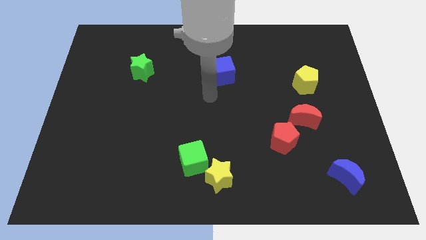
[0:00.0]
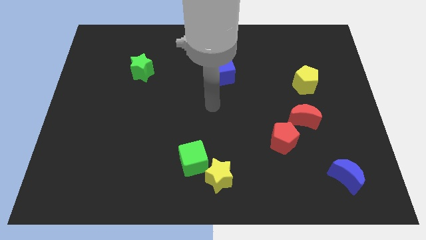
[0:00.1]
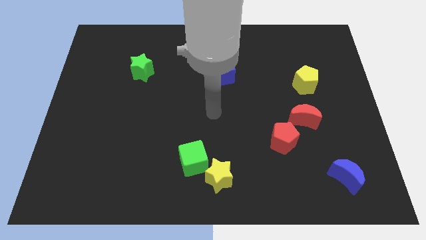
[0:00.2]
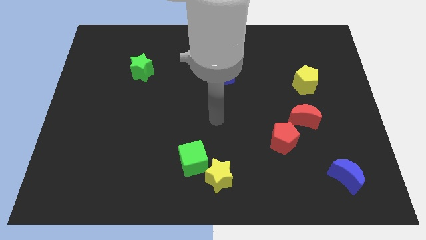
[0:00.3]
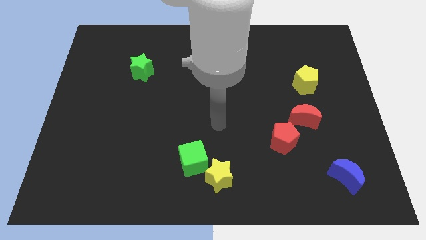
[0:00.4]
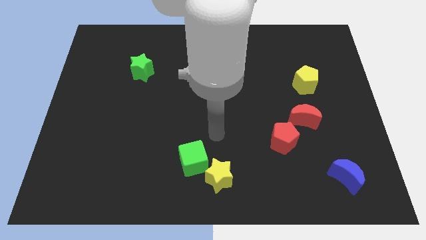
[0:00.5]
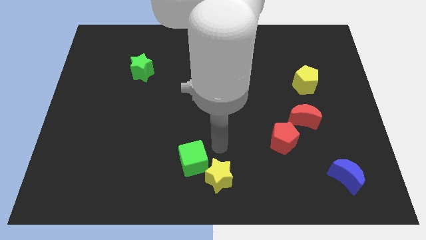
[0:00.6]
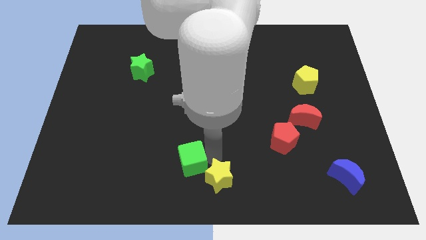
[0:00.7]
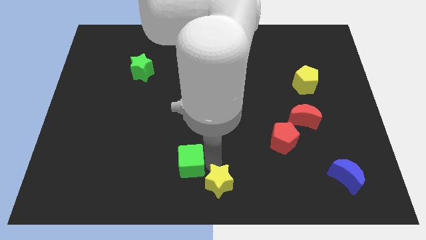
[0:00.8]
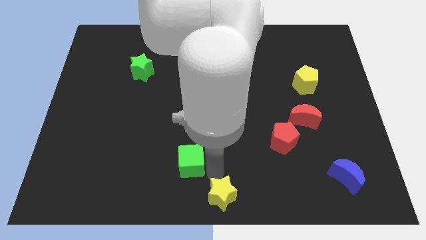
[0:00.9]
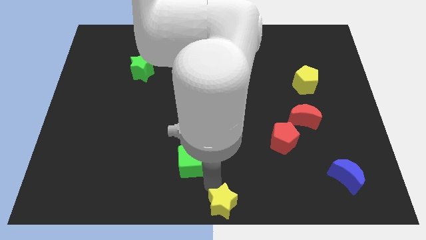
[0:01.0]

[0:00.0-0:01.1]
pull the green cube apart from the yellow star

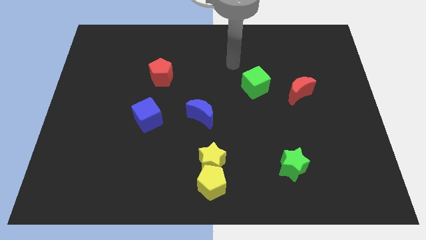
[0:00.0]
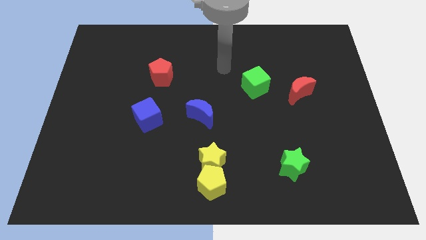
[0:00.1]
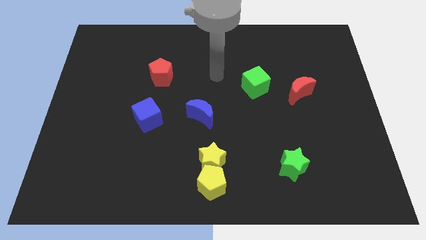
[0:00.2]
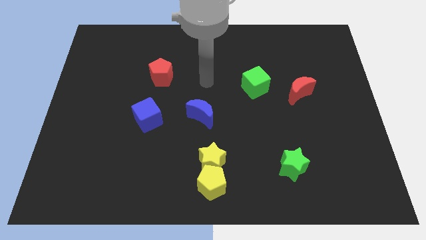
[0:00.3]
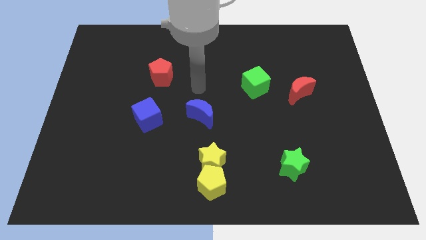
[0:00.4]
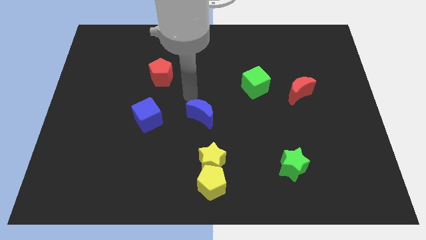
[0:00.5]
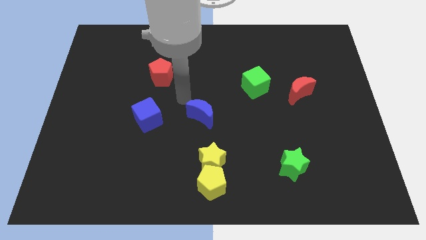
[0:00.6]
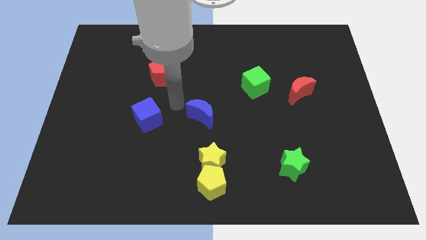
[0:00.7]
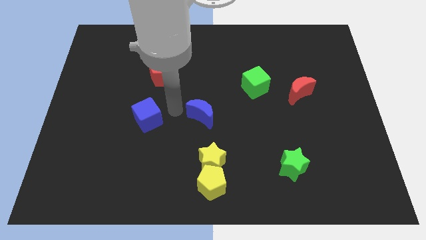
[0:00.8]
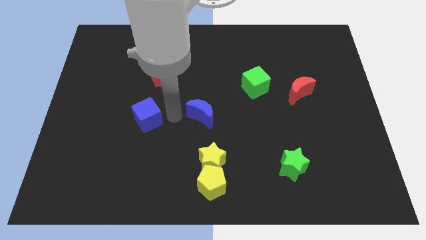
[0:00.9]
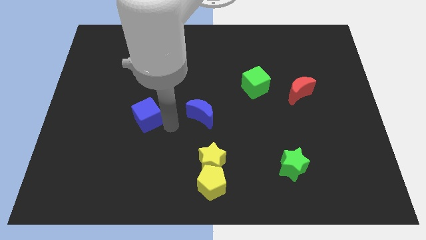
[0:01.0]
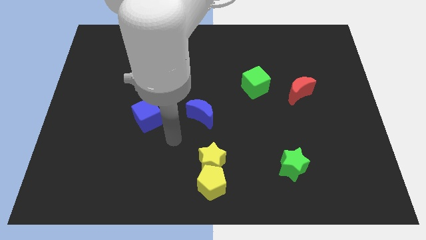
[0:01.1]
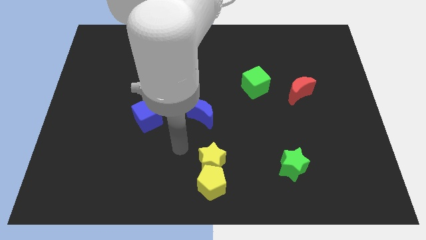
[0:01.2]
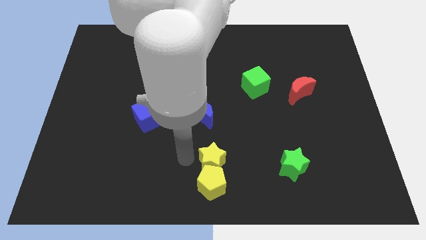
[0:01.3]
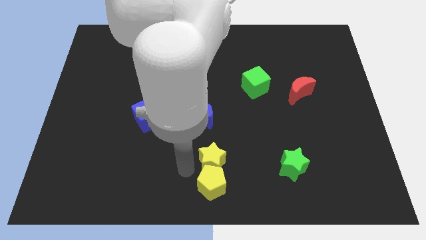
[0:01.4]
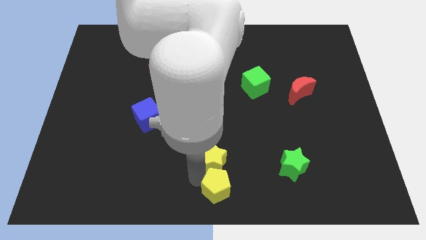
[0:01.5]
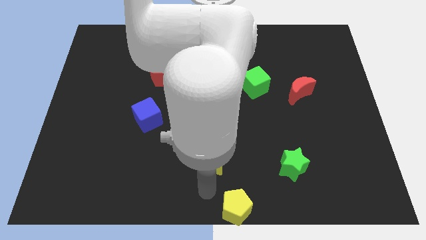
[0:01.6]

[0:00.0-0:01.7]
move the yellow star away from the yellow pentagon

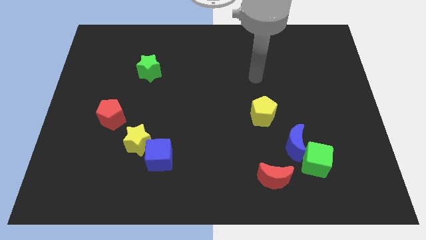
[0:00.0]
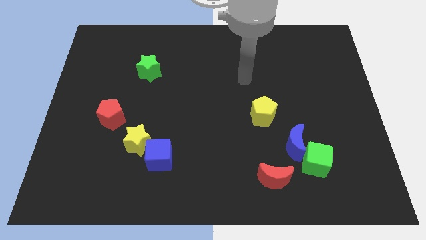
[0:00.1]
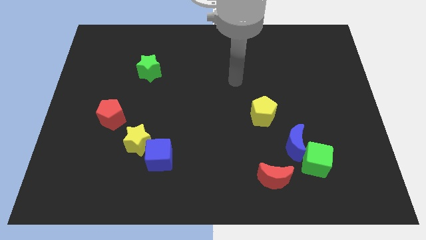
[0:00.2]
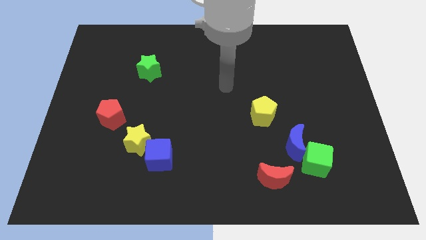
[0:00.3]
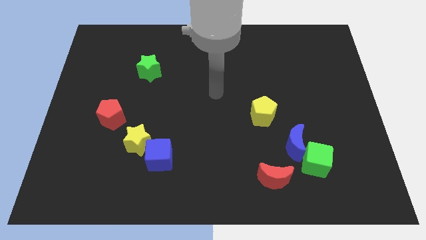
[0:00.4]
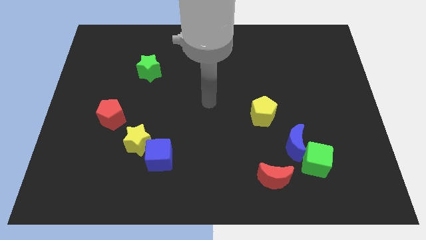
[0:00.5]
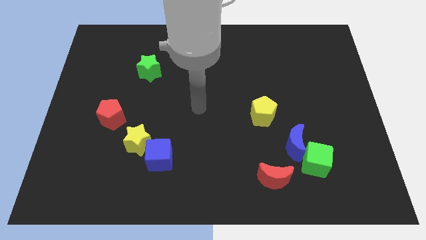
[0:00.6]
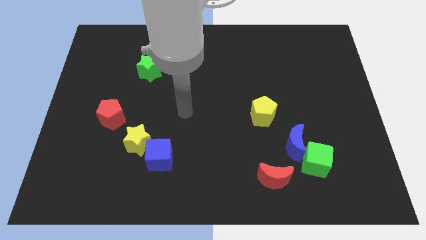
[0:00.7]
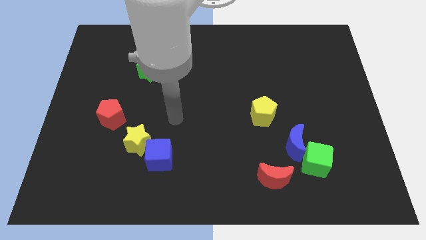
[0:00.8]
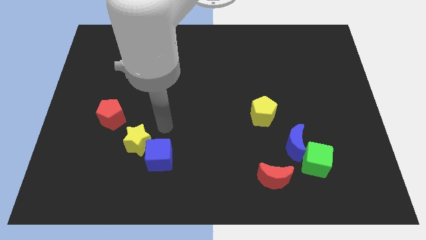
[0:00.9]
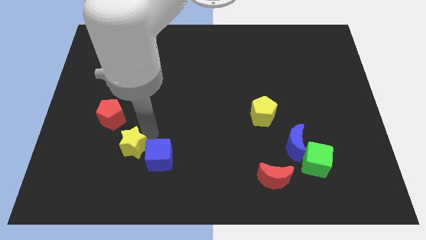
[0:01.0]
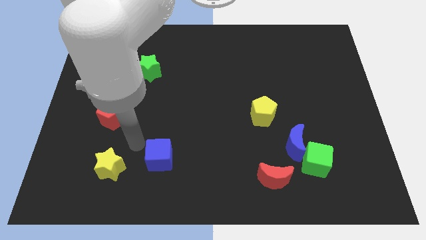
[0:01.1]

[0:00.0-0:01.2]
move the blue cube away from the yellow star

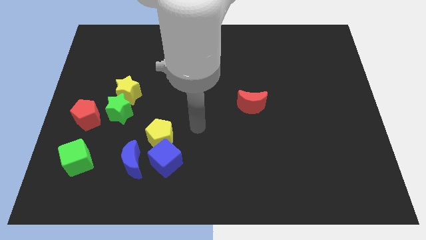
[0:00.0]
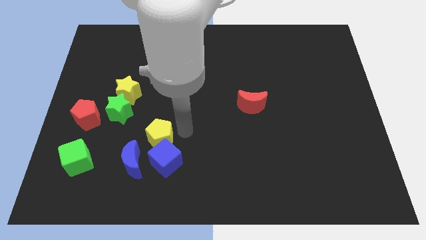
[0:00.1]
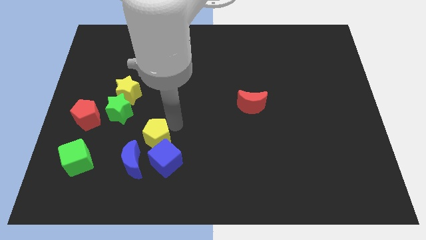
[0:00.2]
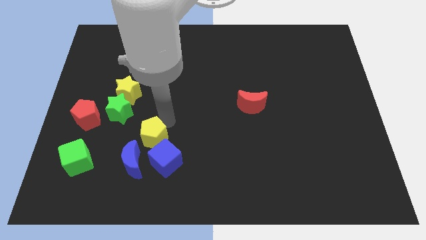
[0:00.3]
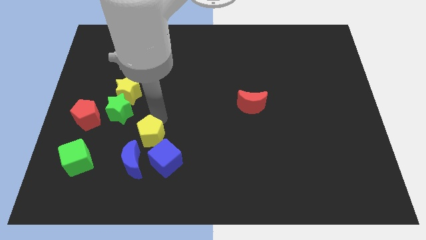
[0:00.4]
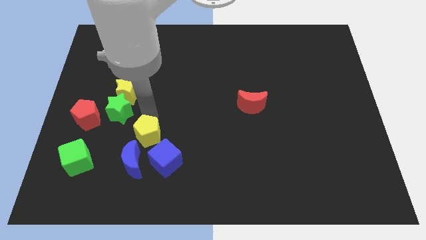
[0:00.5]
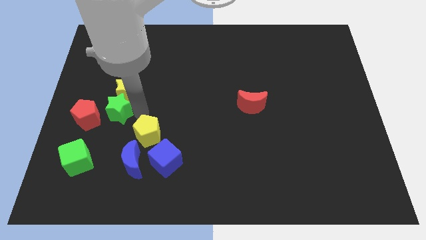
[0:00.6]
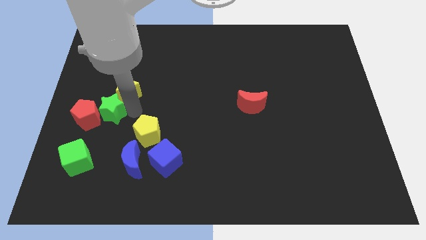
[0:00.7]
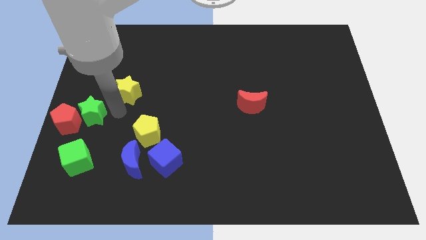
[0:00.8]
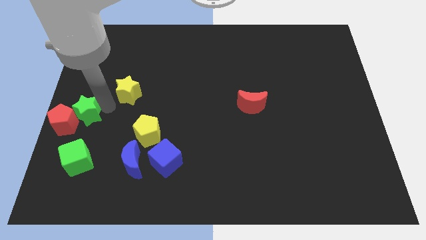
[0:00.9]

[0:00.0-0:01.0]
separate the yellow star from the green star

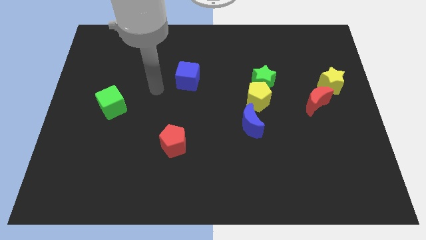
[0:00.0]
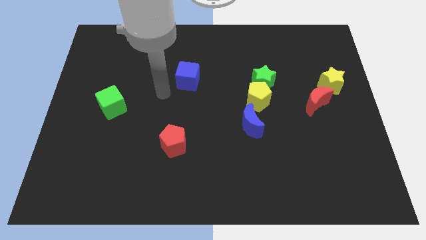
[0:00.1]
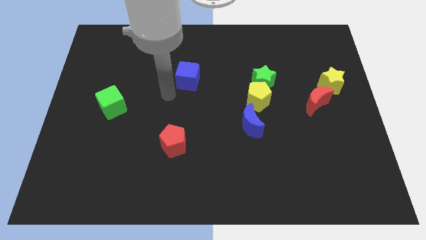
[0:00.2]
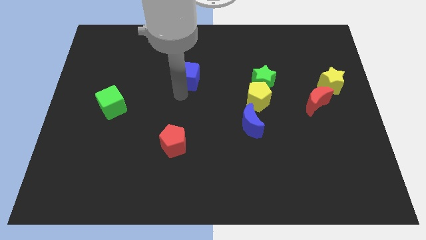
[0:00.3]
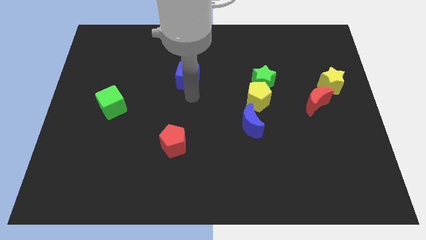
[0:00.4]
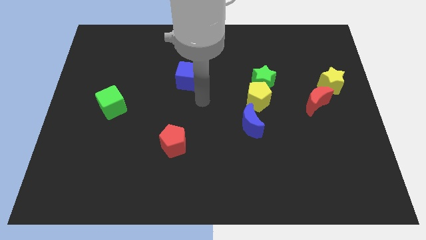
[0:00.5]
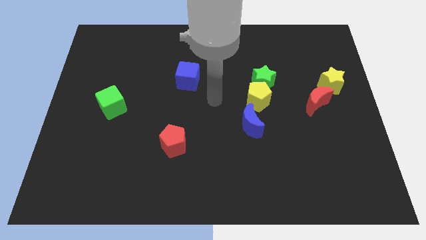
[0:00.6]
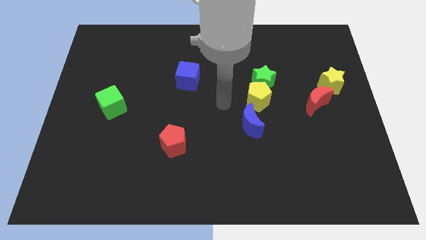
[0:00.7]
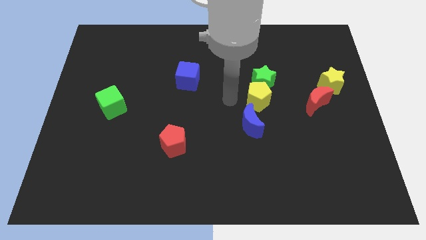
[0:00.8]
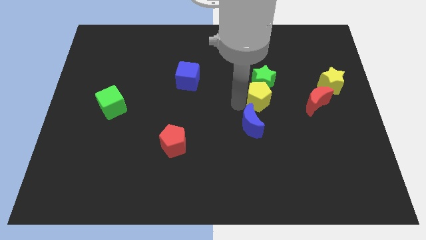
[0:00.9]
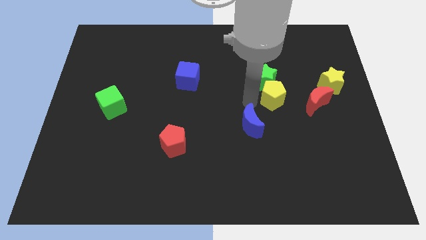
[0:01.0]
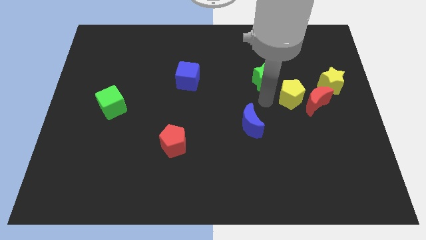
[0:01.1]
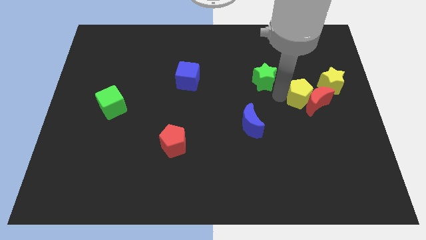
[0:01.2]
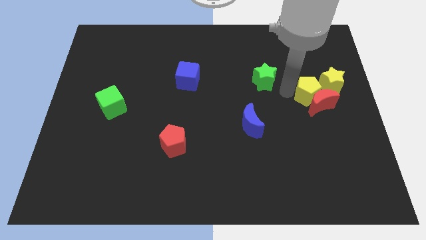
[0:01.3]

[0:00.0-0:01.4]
move the green star away from the yellow pentagon

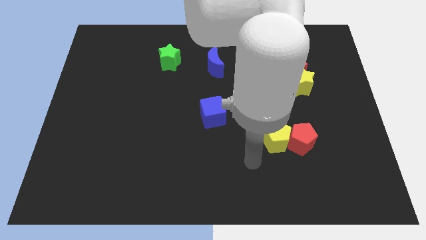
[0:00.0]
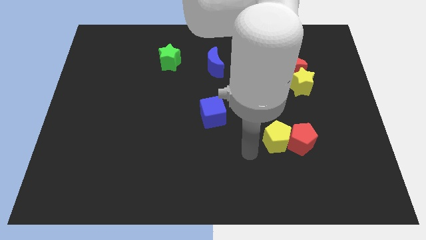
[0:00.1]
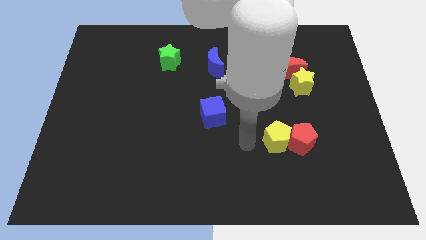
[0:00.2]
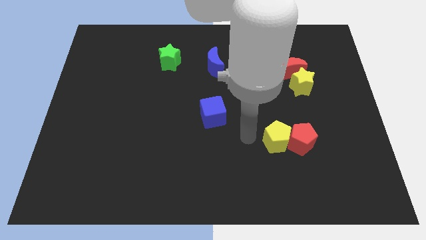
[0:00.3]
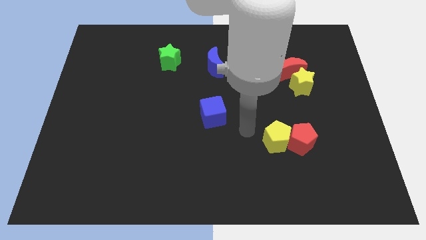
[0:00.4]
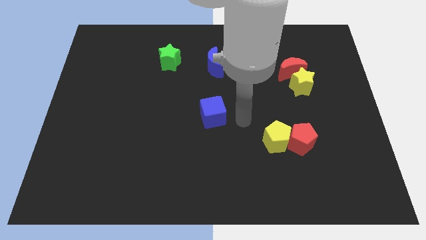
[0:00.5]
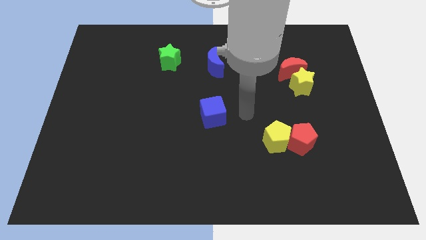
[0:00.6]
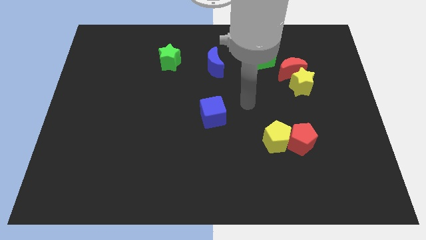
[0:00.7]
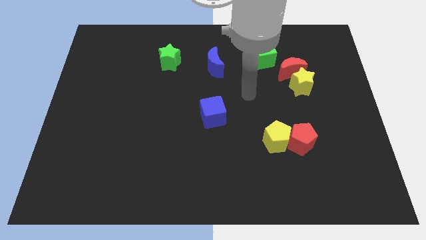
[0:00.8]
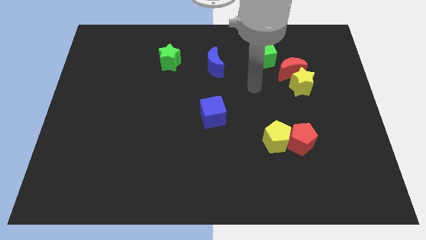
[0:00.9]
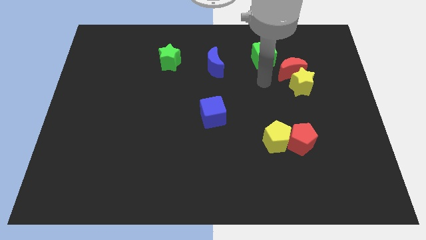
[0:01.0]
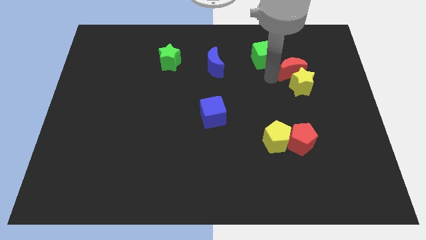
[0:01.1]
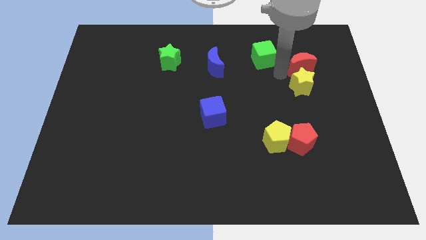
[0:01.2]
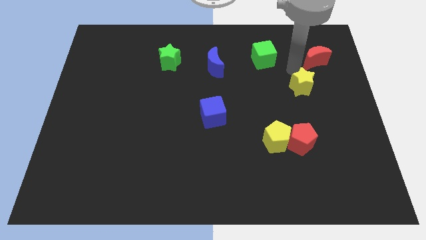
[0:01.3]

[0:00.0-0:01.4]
separate the yellow star from the red moon

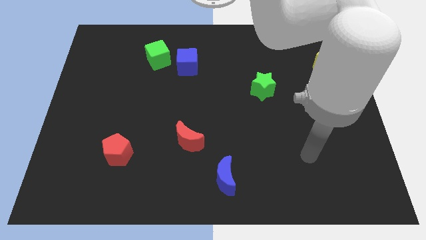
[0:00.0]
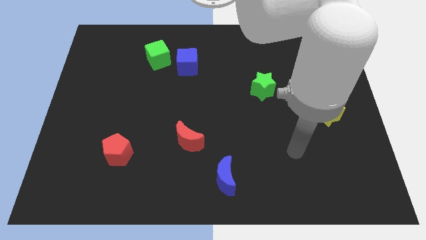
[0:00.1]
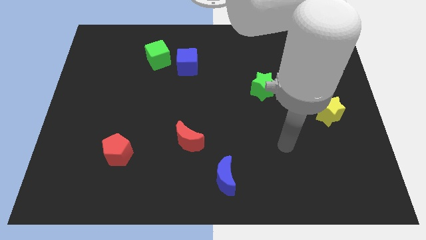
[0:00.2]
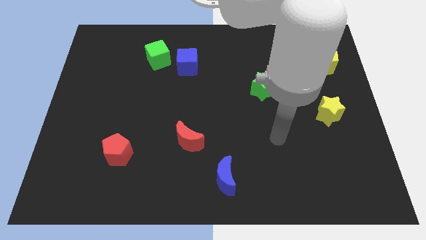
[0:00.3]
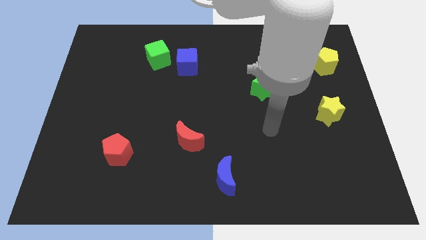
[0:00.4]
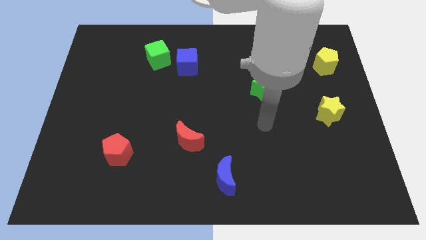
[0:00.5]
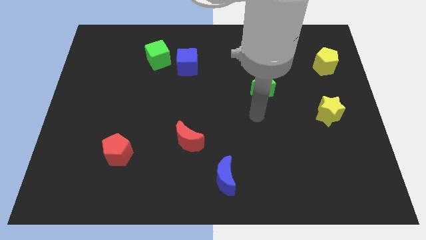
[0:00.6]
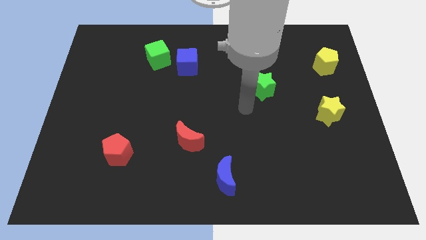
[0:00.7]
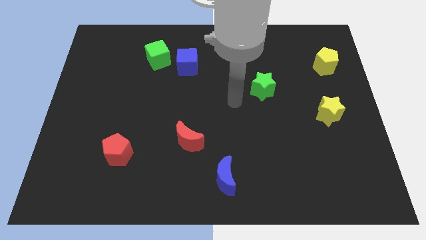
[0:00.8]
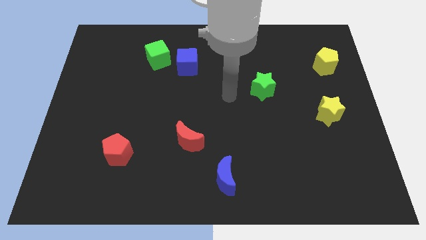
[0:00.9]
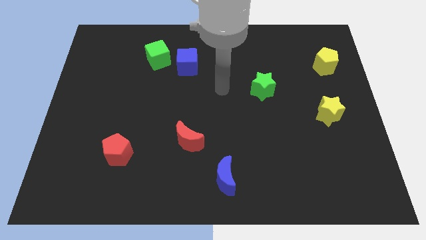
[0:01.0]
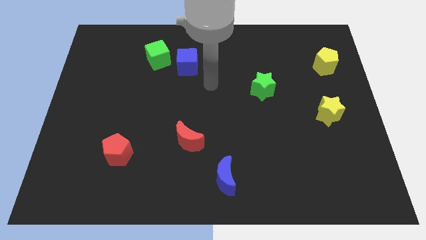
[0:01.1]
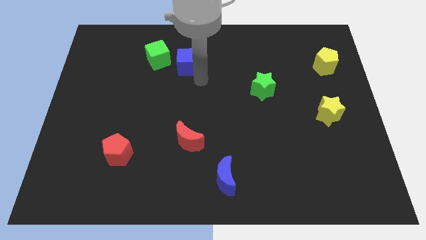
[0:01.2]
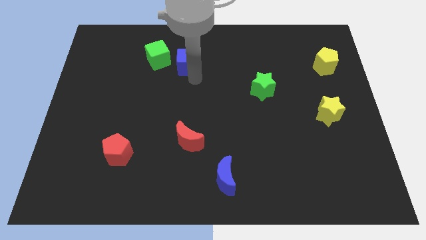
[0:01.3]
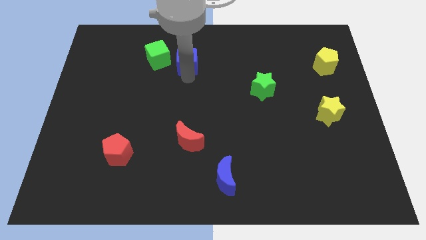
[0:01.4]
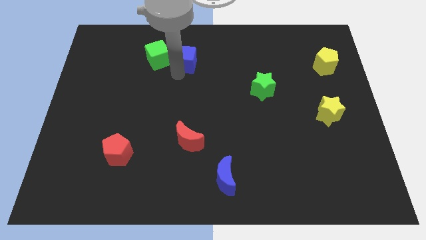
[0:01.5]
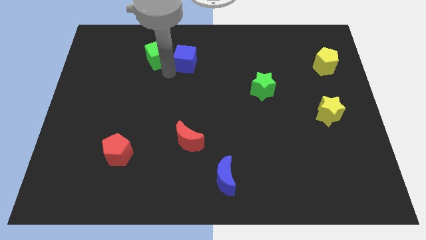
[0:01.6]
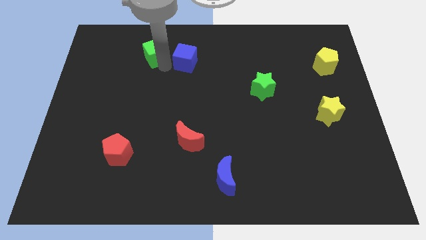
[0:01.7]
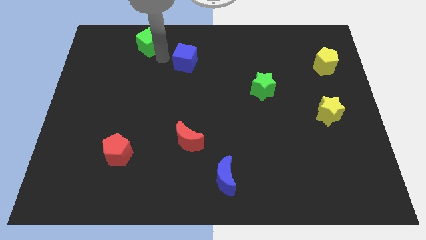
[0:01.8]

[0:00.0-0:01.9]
move the blue cube away from the green cube
